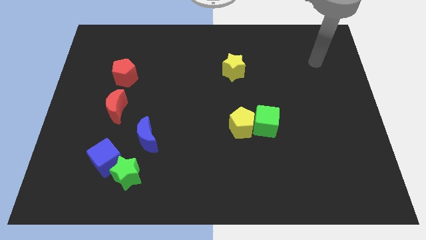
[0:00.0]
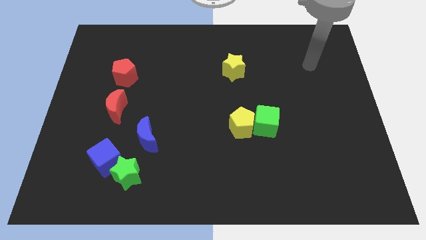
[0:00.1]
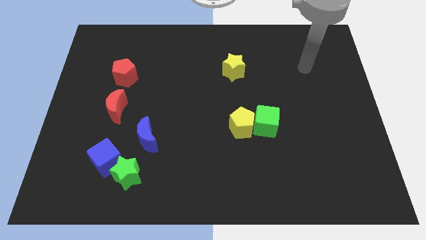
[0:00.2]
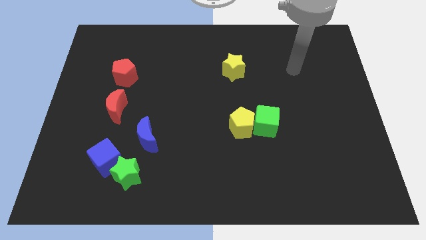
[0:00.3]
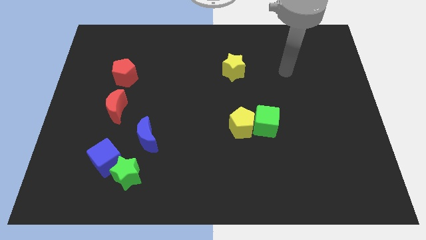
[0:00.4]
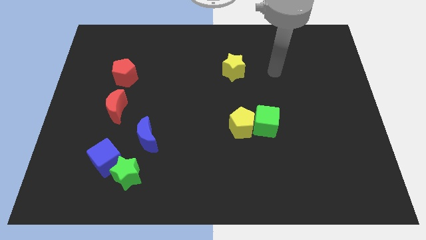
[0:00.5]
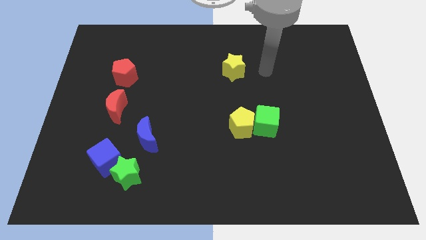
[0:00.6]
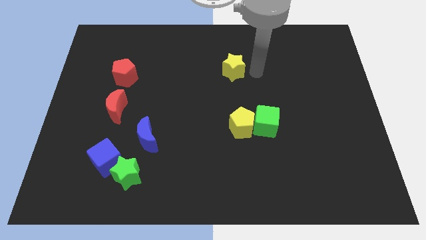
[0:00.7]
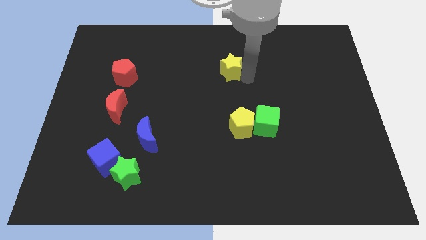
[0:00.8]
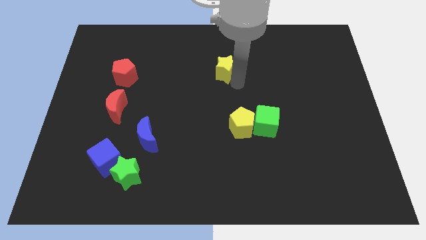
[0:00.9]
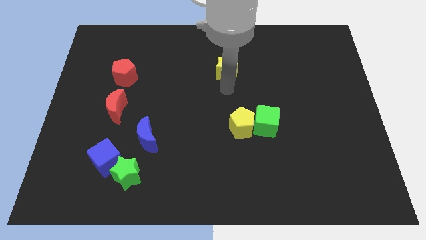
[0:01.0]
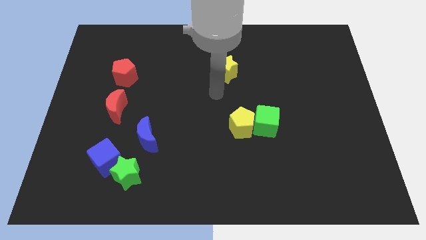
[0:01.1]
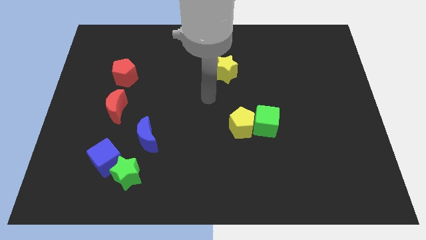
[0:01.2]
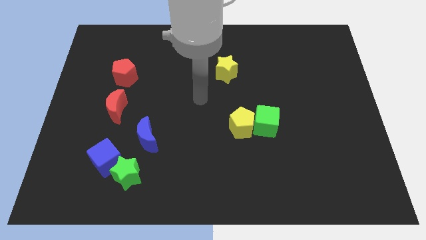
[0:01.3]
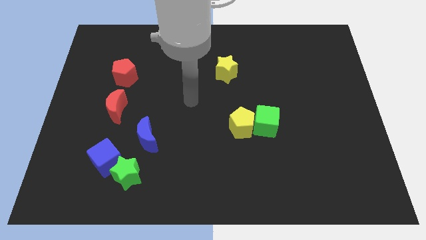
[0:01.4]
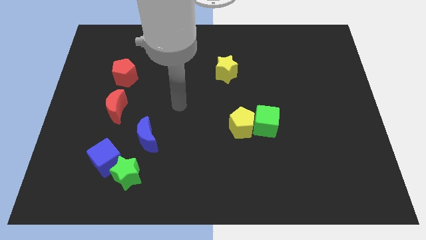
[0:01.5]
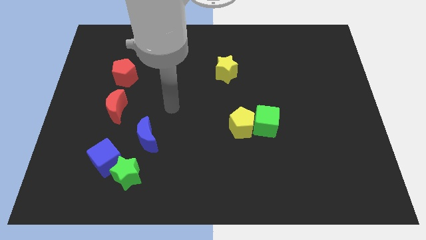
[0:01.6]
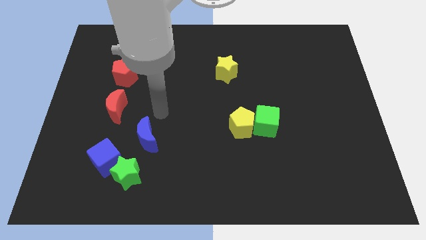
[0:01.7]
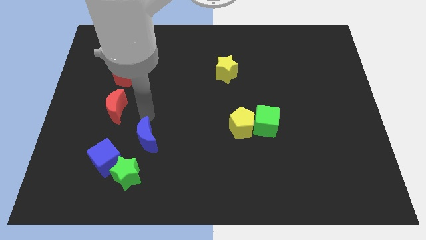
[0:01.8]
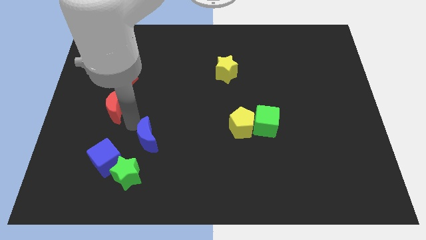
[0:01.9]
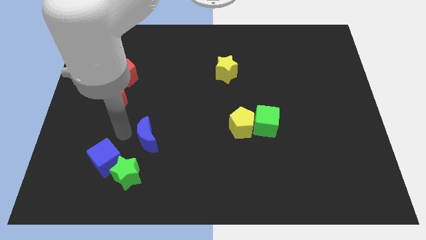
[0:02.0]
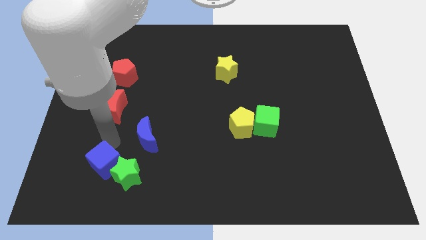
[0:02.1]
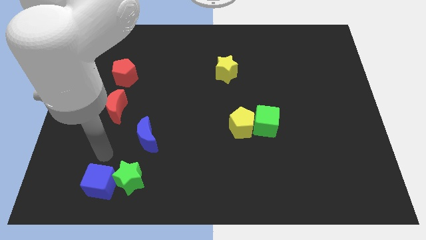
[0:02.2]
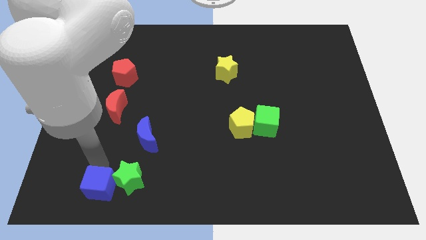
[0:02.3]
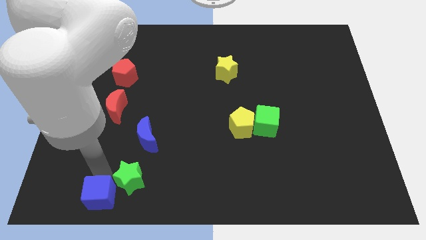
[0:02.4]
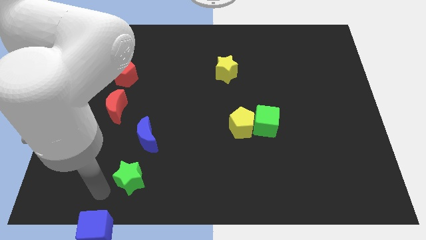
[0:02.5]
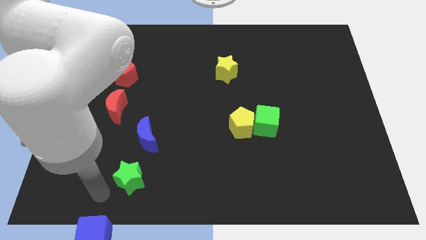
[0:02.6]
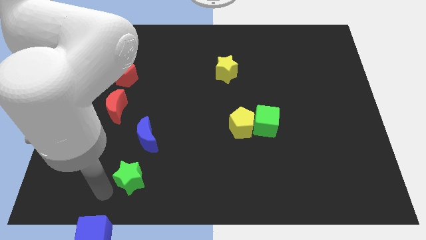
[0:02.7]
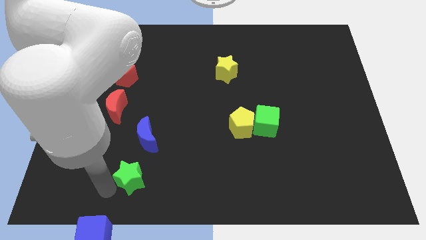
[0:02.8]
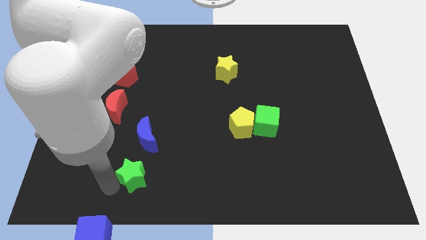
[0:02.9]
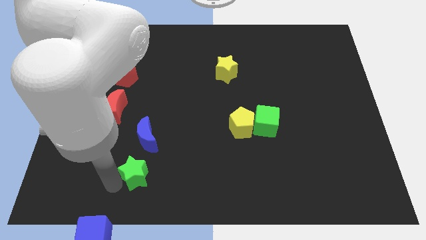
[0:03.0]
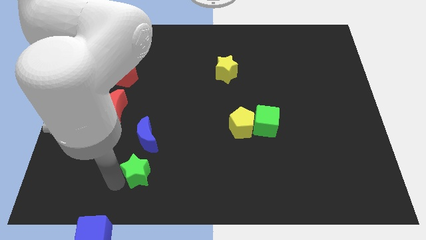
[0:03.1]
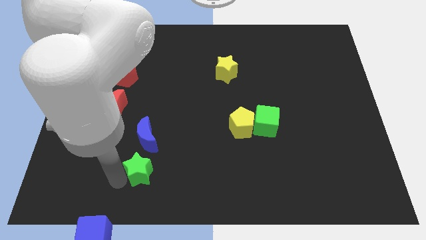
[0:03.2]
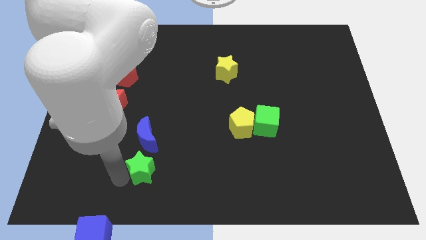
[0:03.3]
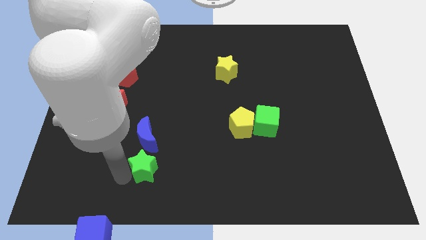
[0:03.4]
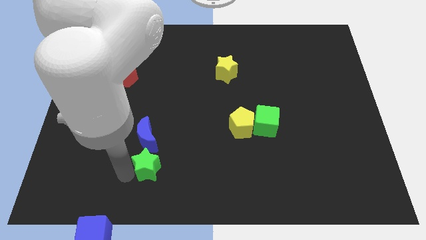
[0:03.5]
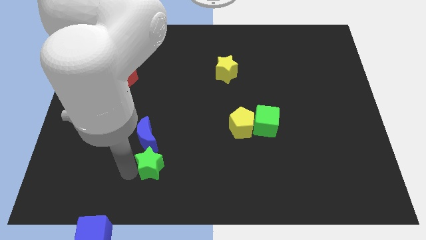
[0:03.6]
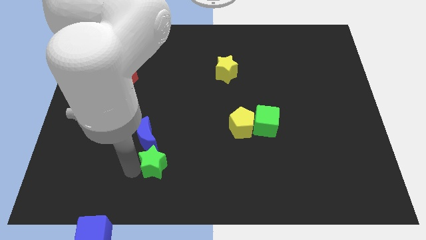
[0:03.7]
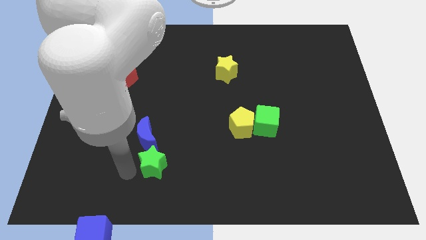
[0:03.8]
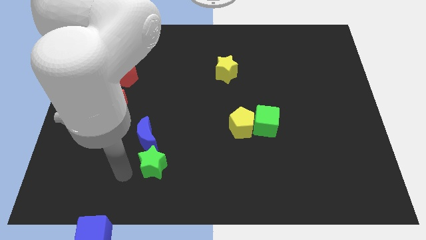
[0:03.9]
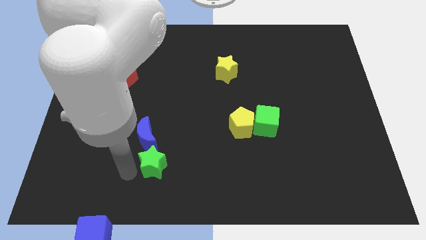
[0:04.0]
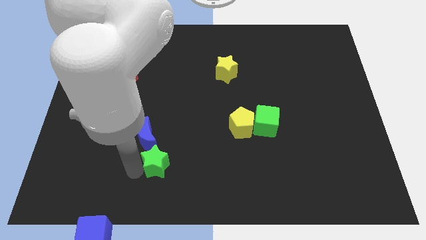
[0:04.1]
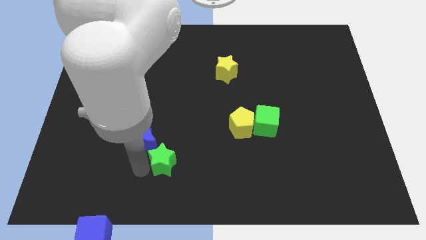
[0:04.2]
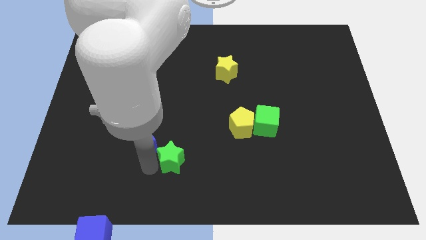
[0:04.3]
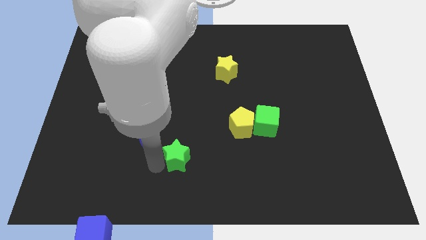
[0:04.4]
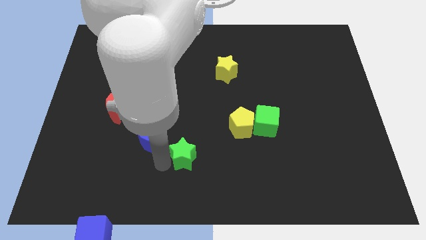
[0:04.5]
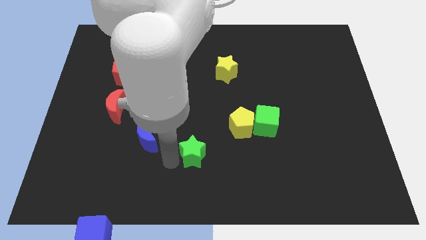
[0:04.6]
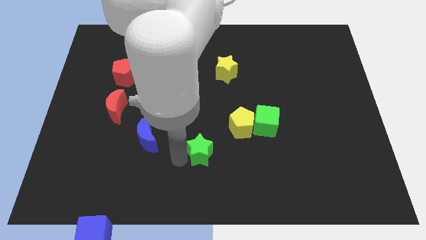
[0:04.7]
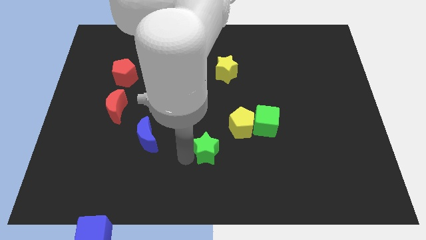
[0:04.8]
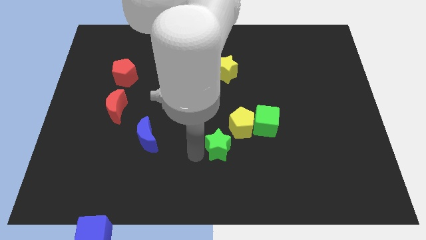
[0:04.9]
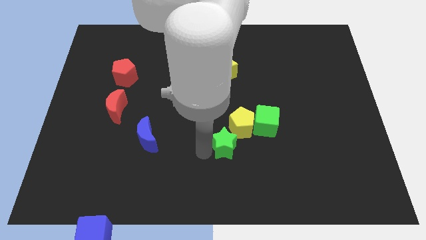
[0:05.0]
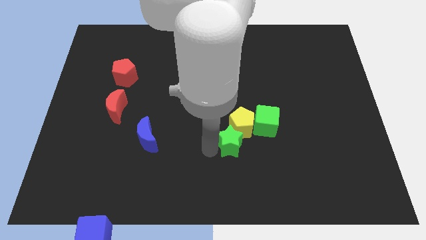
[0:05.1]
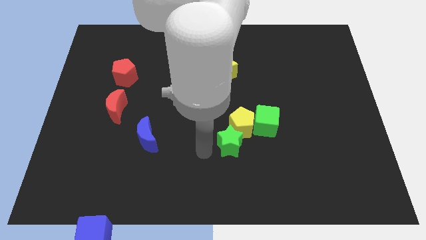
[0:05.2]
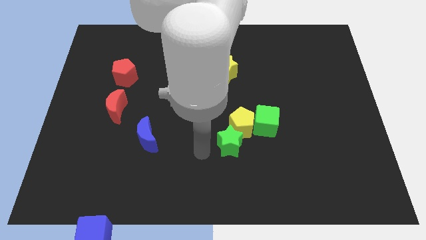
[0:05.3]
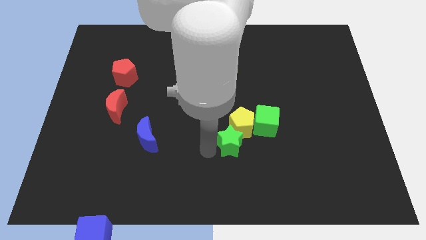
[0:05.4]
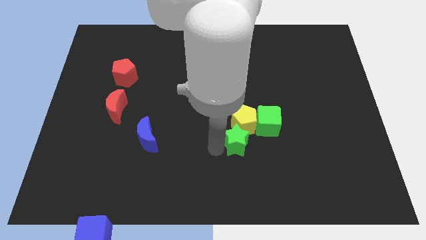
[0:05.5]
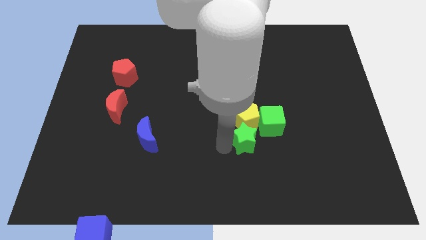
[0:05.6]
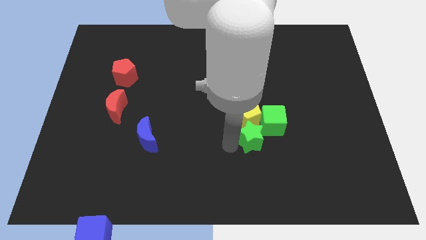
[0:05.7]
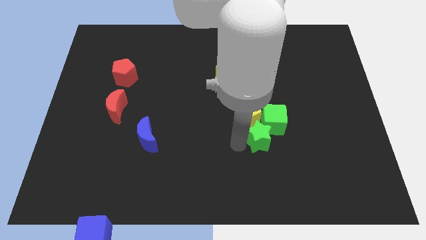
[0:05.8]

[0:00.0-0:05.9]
move the green star next to the green cube

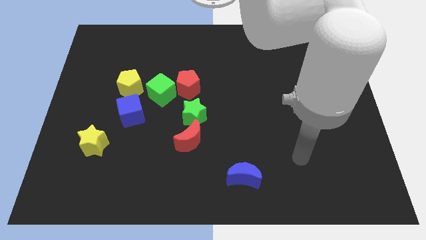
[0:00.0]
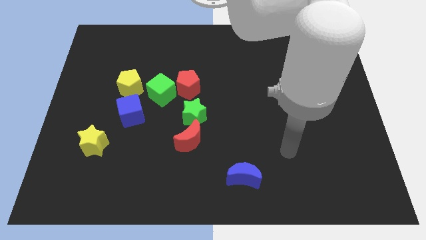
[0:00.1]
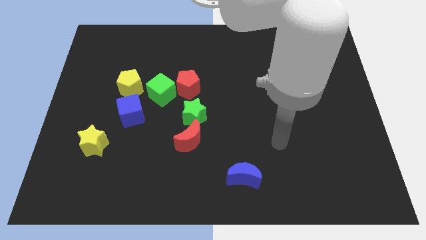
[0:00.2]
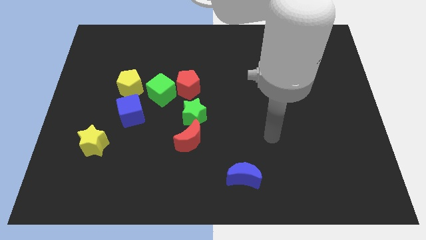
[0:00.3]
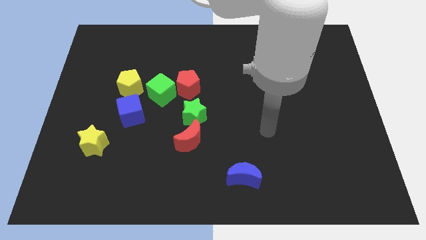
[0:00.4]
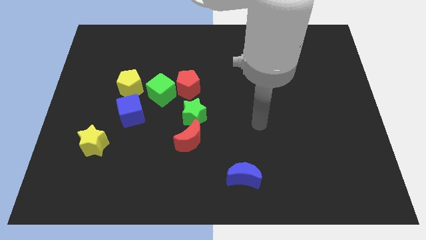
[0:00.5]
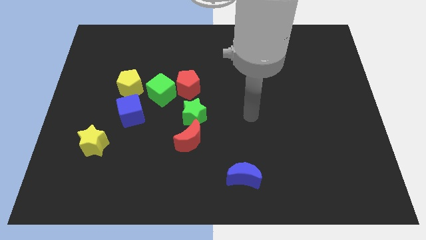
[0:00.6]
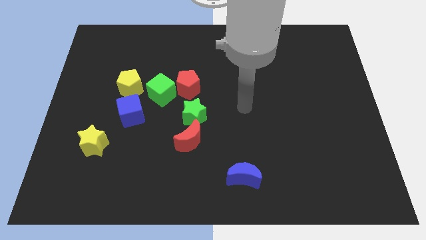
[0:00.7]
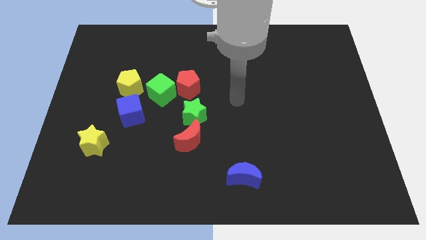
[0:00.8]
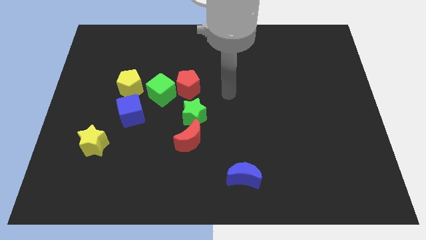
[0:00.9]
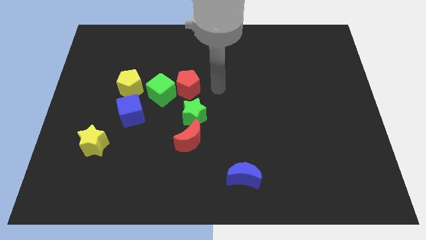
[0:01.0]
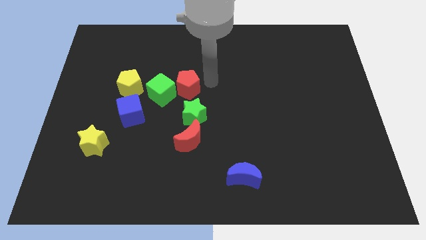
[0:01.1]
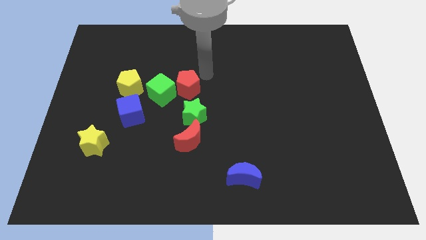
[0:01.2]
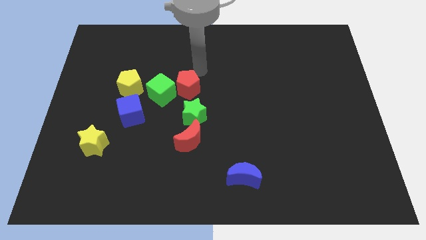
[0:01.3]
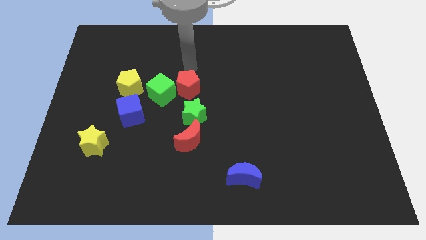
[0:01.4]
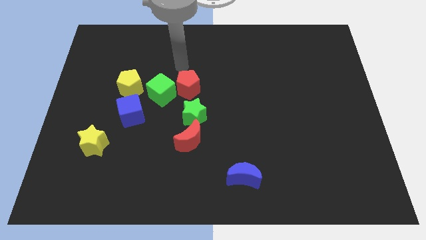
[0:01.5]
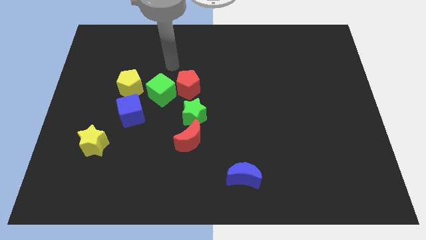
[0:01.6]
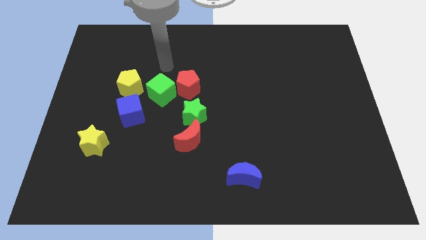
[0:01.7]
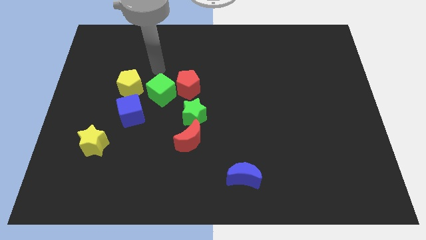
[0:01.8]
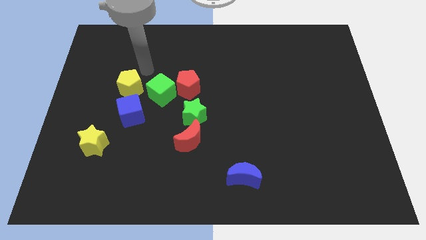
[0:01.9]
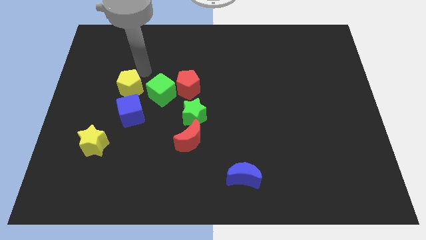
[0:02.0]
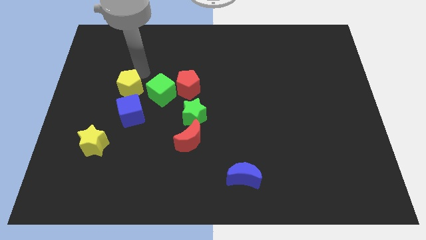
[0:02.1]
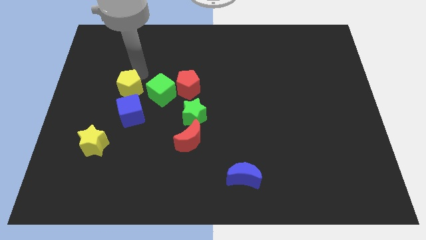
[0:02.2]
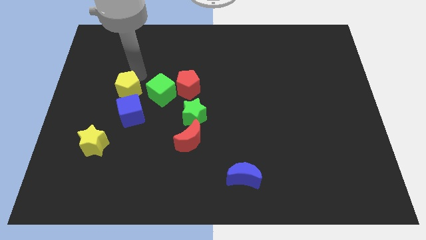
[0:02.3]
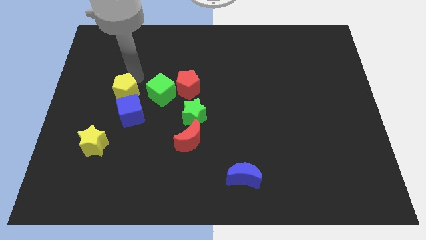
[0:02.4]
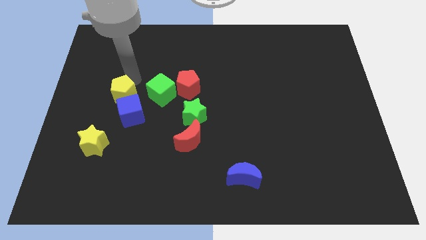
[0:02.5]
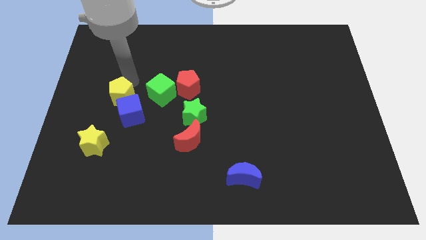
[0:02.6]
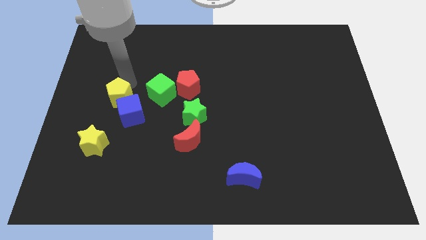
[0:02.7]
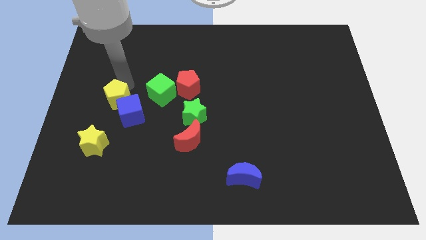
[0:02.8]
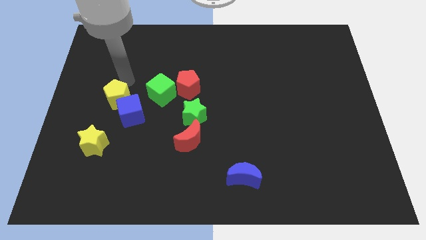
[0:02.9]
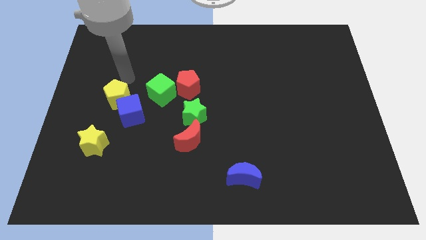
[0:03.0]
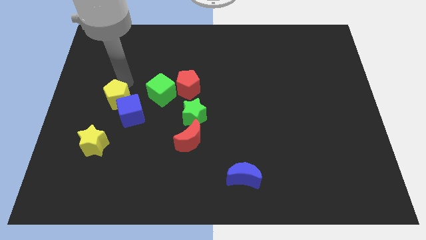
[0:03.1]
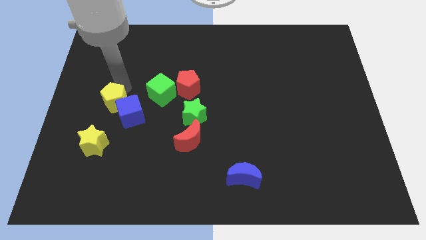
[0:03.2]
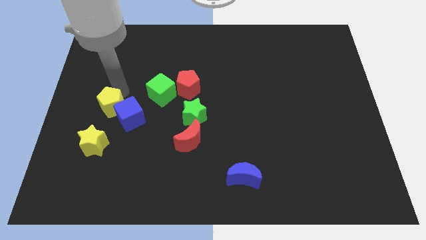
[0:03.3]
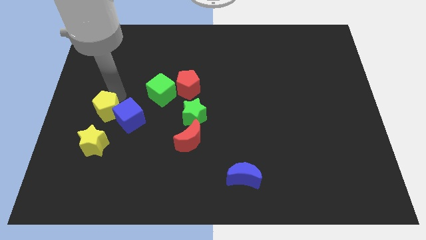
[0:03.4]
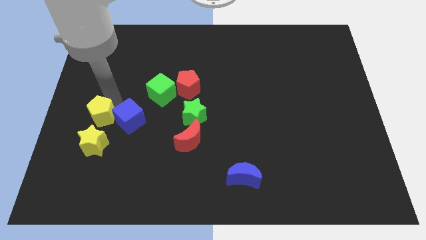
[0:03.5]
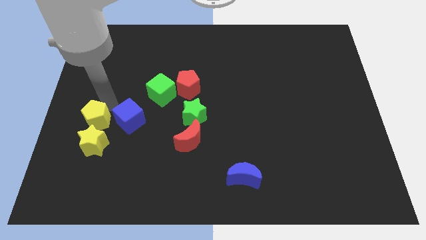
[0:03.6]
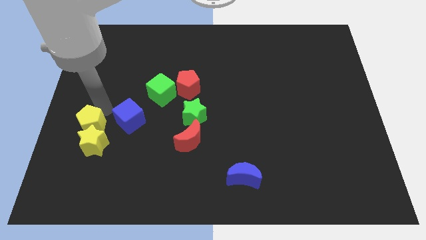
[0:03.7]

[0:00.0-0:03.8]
push the yellow pentagon to the yellow star
